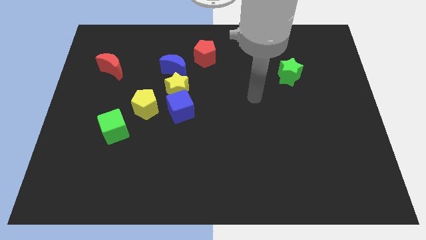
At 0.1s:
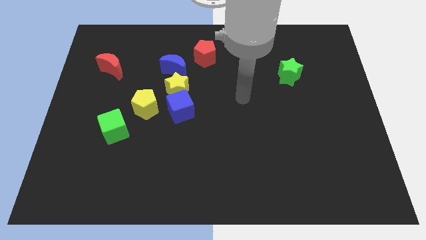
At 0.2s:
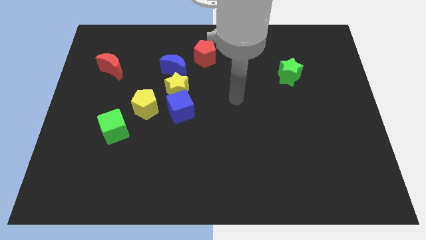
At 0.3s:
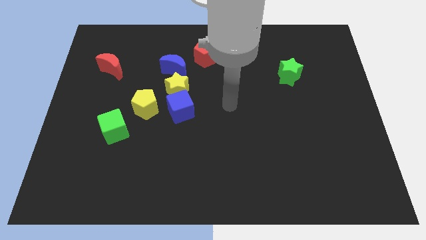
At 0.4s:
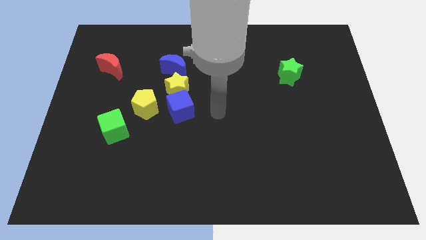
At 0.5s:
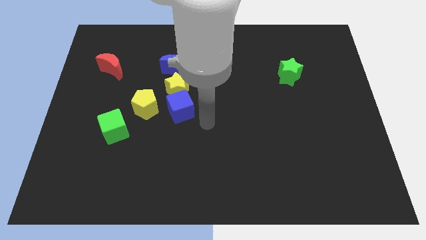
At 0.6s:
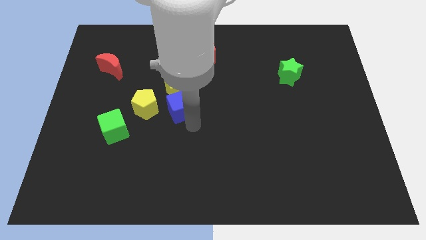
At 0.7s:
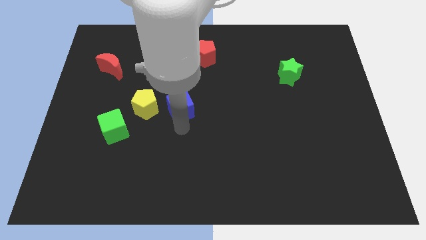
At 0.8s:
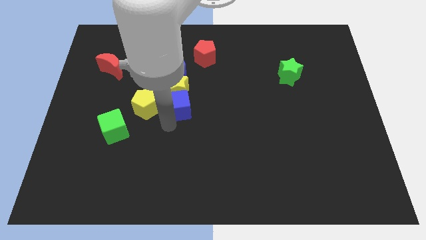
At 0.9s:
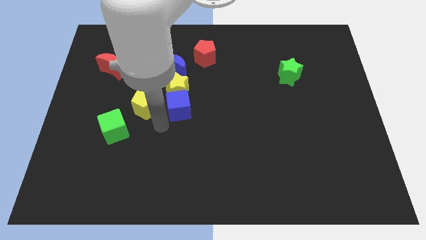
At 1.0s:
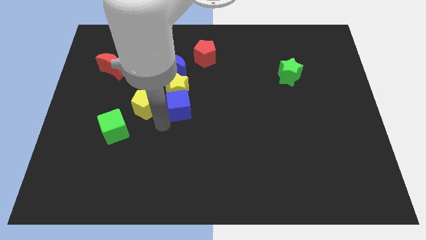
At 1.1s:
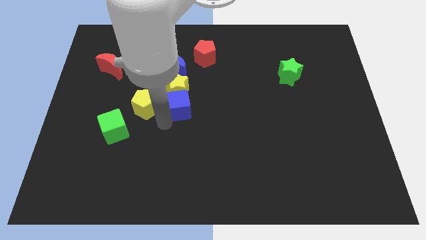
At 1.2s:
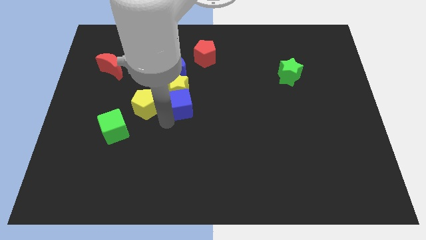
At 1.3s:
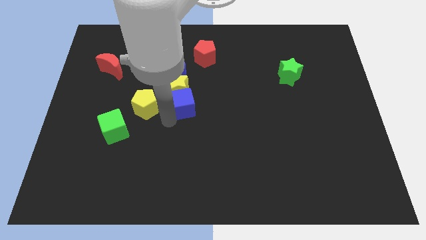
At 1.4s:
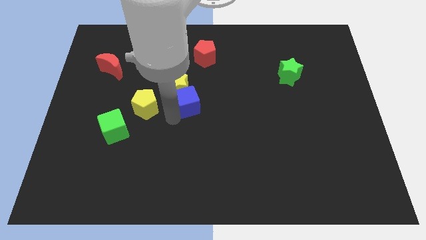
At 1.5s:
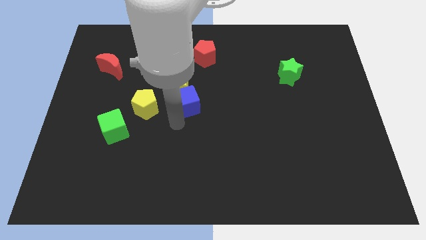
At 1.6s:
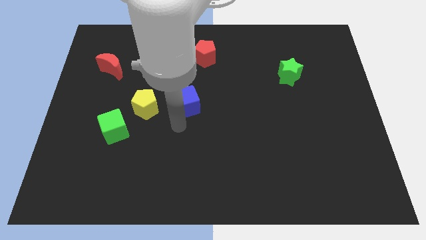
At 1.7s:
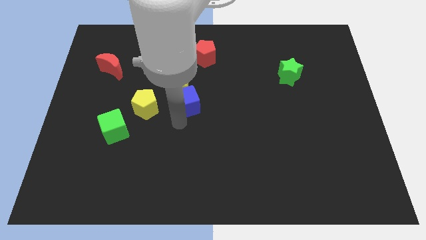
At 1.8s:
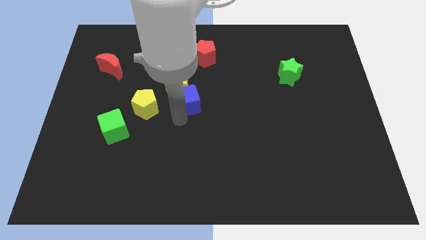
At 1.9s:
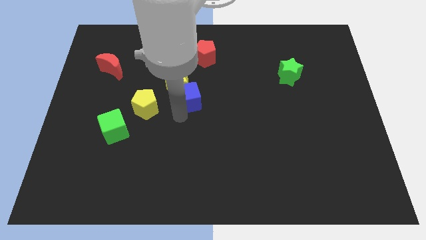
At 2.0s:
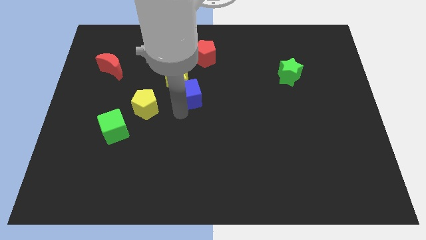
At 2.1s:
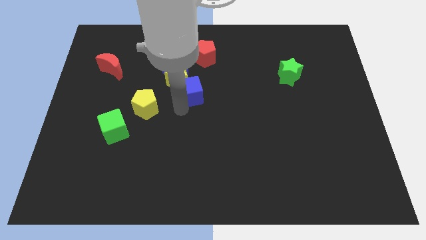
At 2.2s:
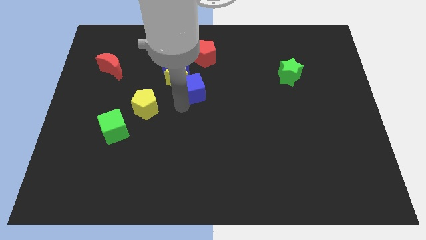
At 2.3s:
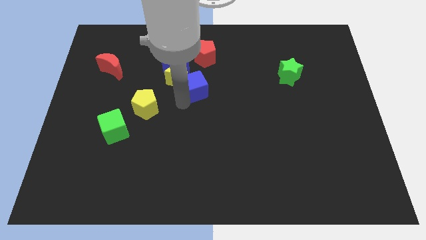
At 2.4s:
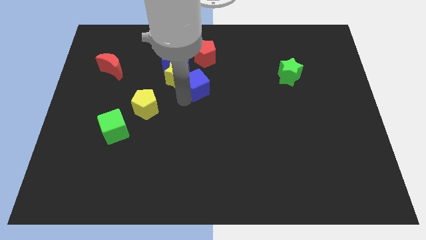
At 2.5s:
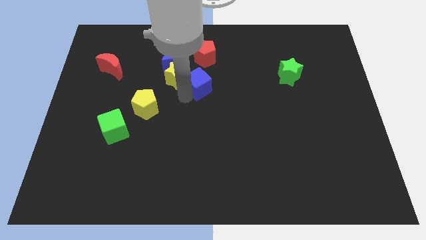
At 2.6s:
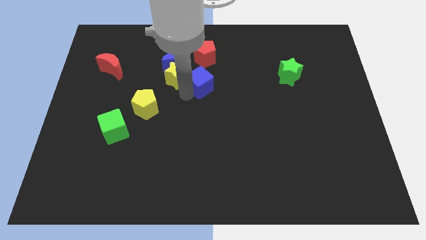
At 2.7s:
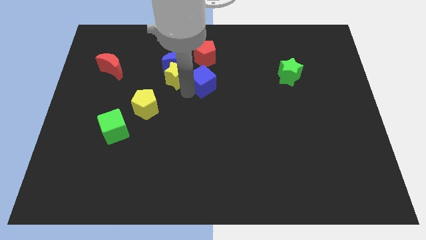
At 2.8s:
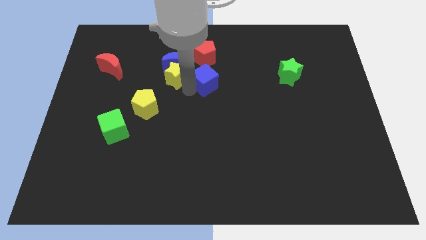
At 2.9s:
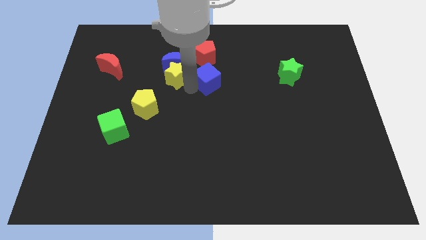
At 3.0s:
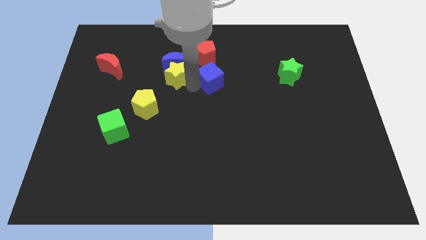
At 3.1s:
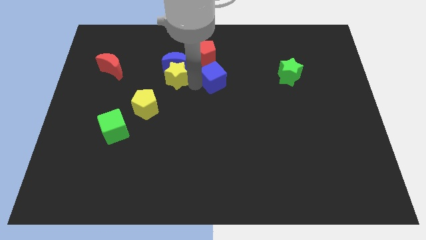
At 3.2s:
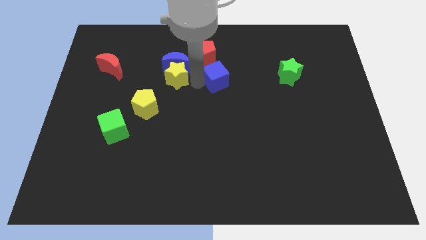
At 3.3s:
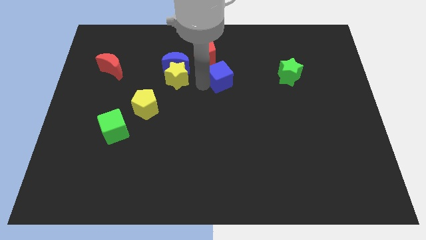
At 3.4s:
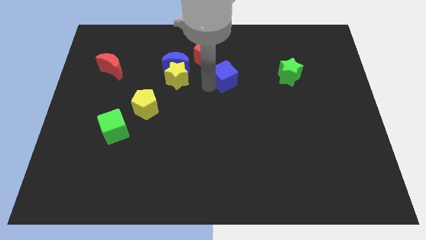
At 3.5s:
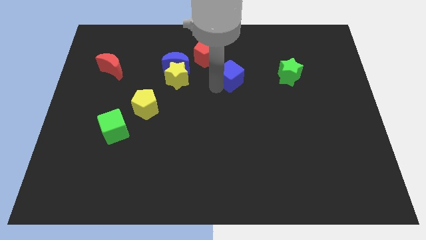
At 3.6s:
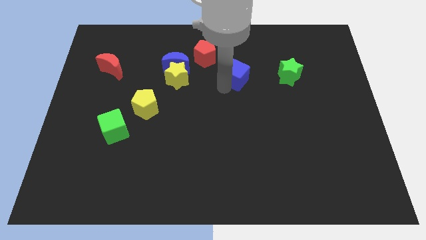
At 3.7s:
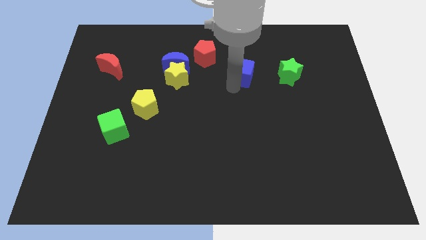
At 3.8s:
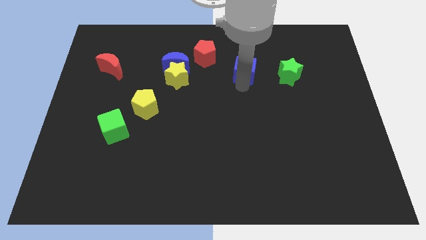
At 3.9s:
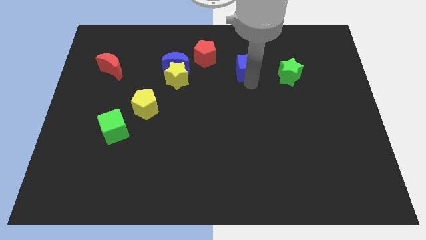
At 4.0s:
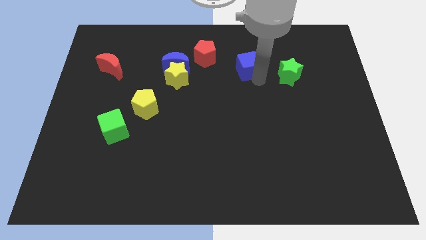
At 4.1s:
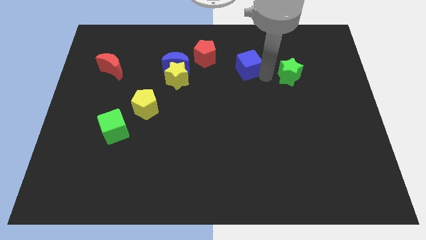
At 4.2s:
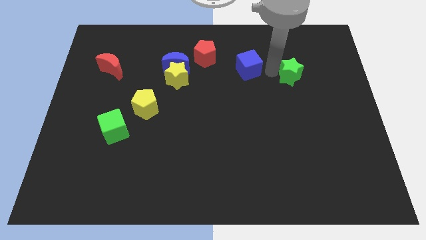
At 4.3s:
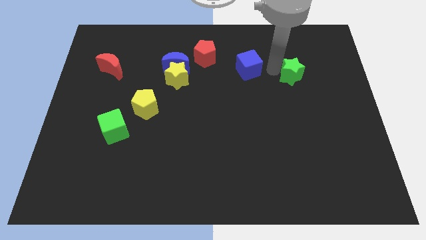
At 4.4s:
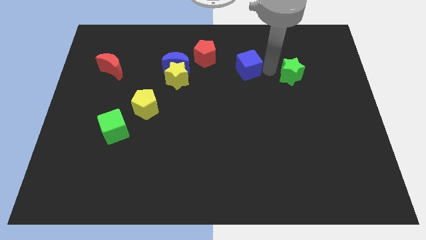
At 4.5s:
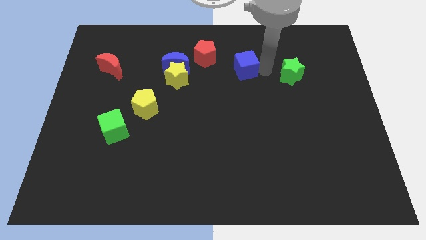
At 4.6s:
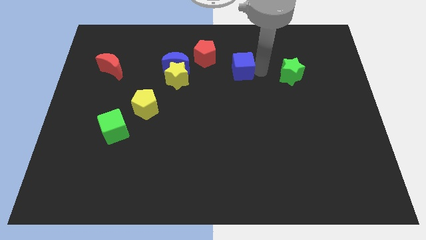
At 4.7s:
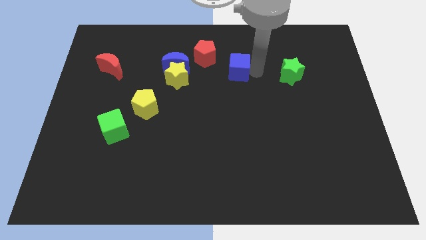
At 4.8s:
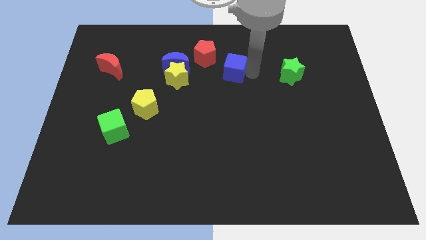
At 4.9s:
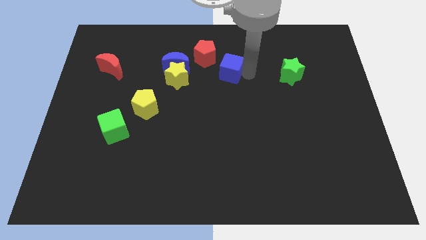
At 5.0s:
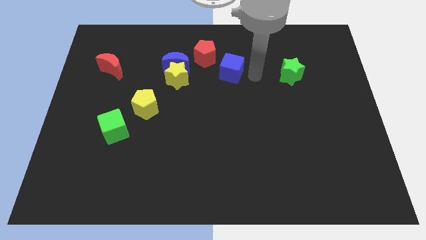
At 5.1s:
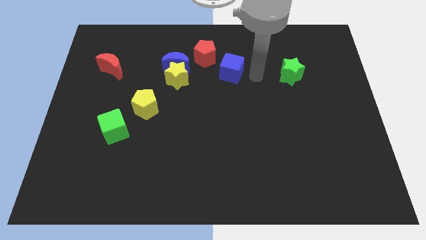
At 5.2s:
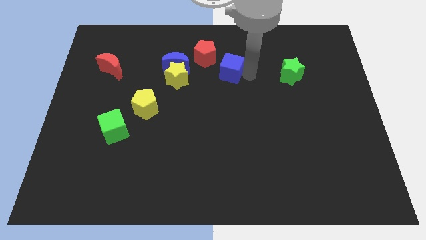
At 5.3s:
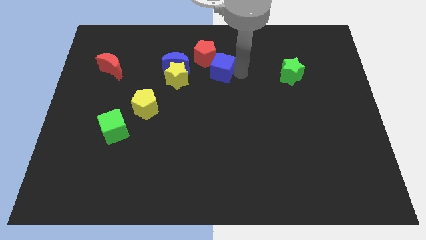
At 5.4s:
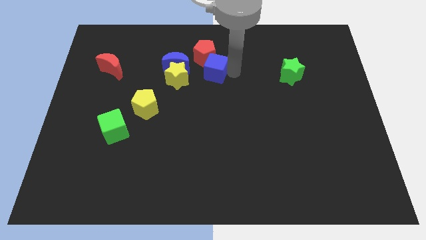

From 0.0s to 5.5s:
move the blue cube to the top right side of the yellow star
